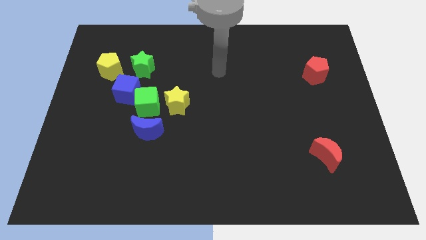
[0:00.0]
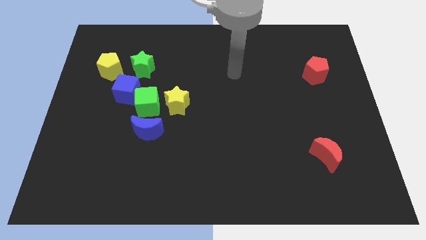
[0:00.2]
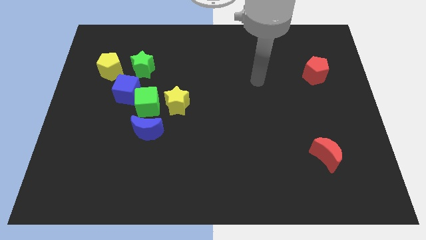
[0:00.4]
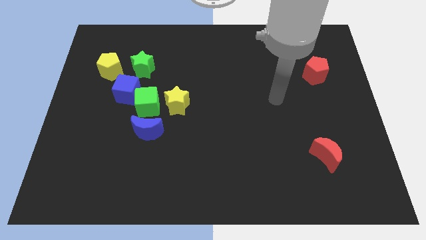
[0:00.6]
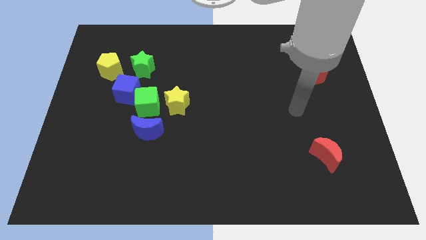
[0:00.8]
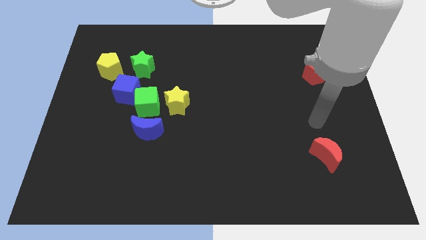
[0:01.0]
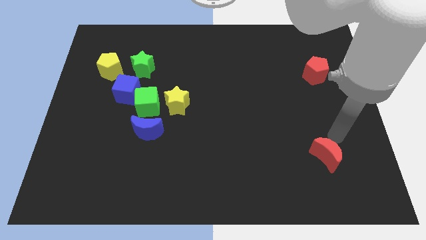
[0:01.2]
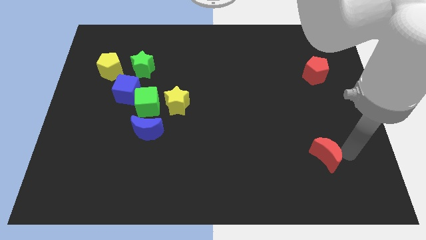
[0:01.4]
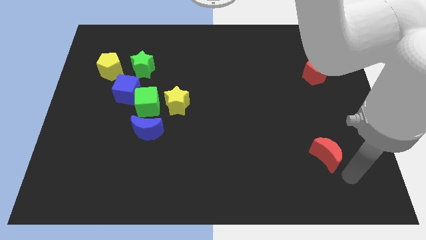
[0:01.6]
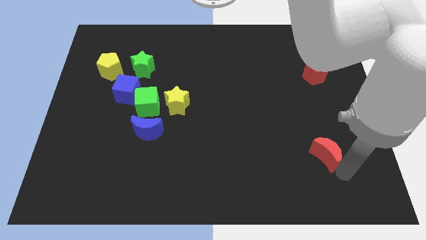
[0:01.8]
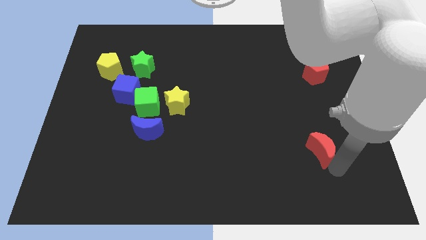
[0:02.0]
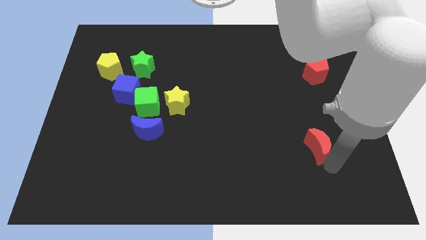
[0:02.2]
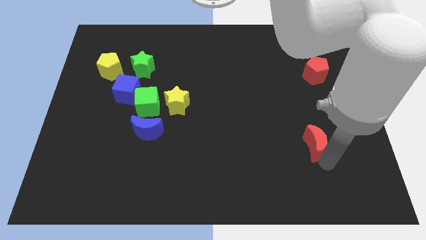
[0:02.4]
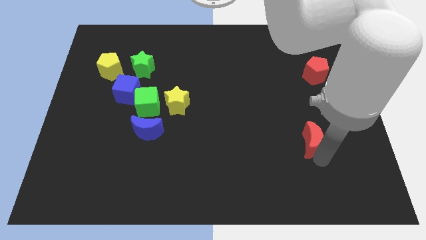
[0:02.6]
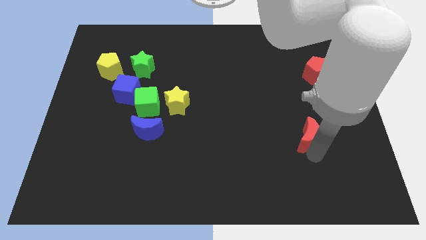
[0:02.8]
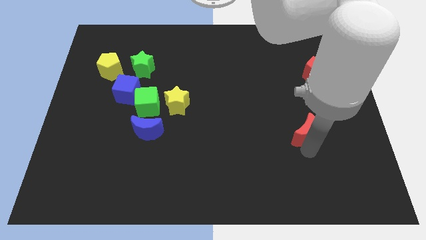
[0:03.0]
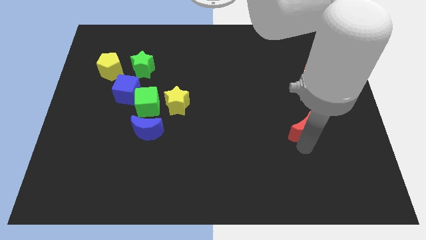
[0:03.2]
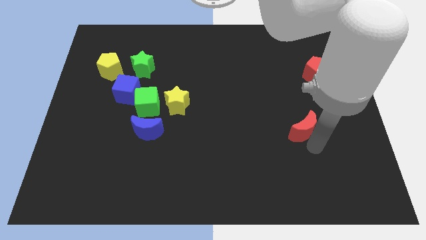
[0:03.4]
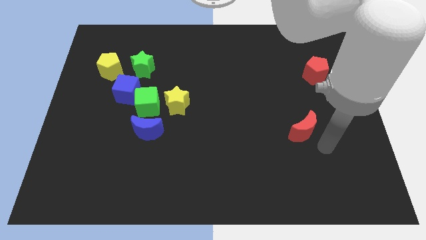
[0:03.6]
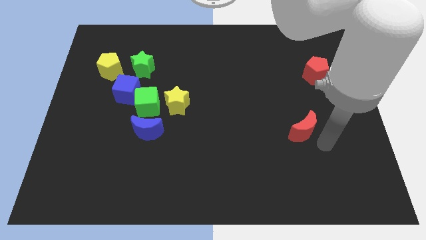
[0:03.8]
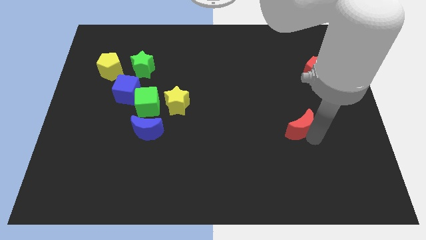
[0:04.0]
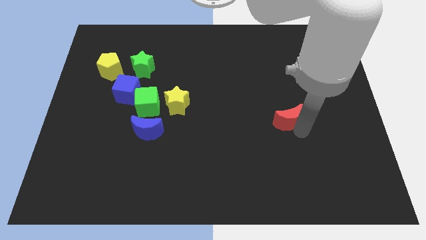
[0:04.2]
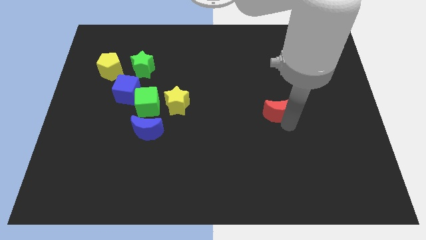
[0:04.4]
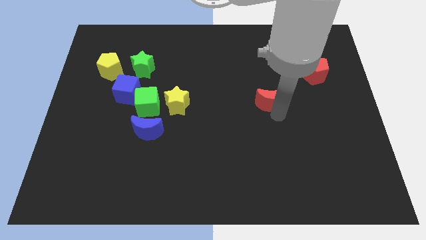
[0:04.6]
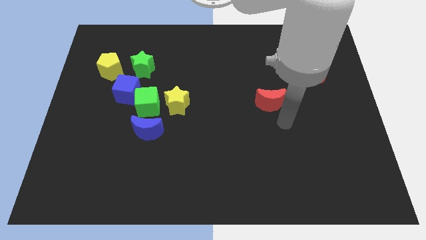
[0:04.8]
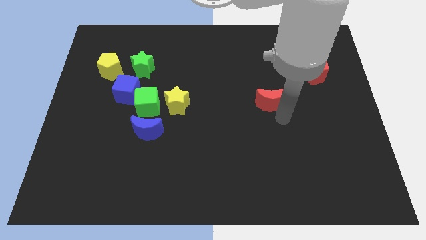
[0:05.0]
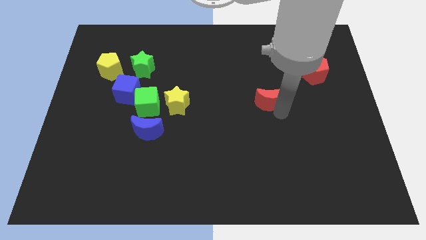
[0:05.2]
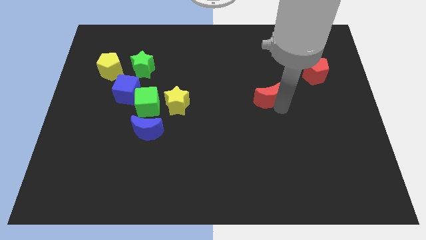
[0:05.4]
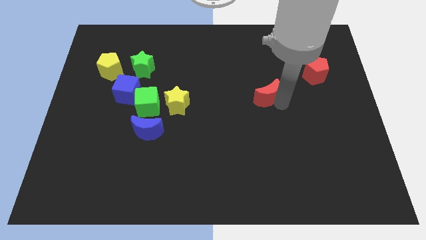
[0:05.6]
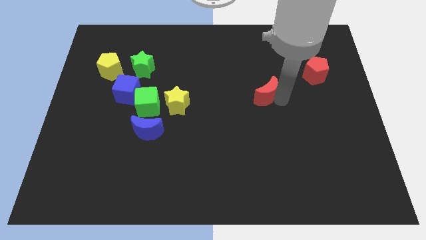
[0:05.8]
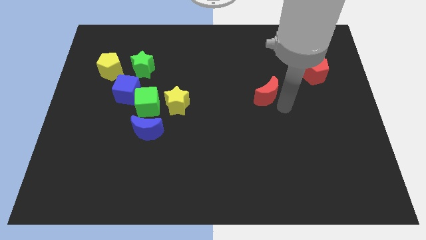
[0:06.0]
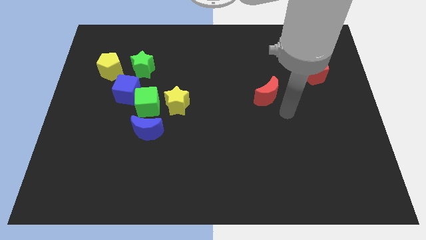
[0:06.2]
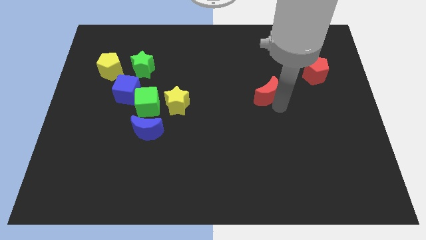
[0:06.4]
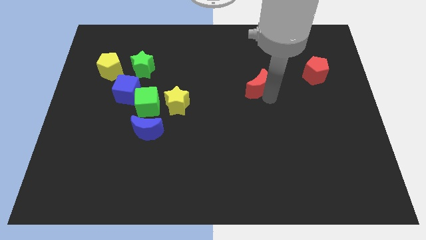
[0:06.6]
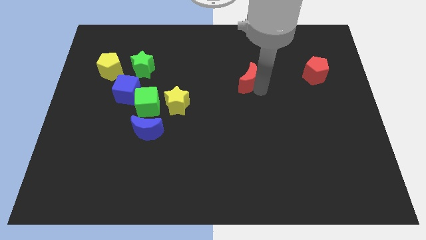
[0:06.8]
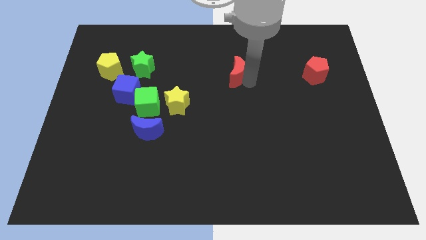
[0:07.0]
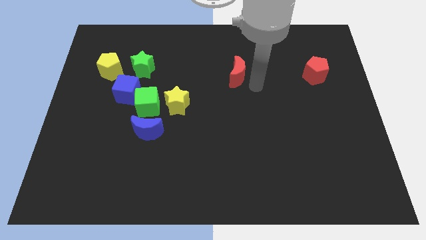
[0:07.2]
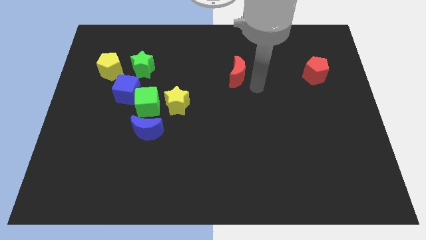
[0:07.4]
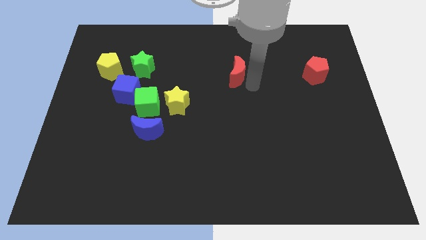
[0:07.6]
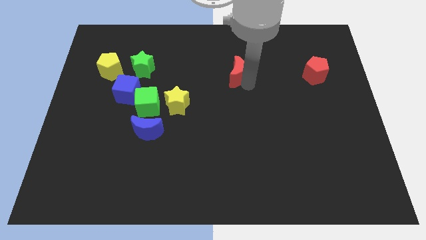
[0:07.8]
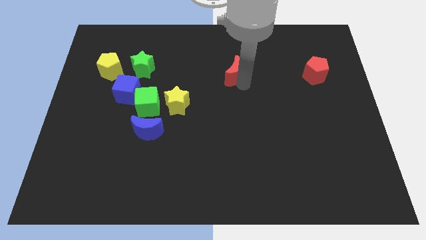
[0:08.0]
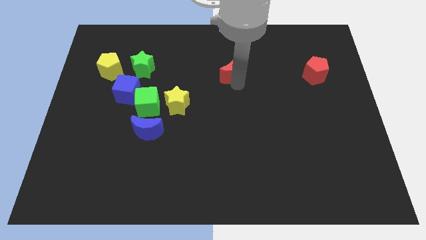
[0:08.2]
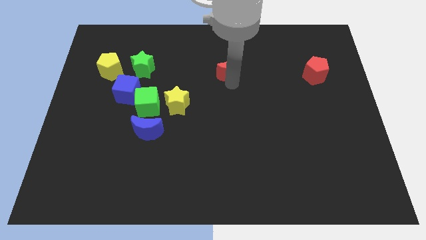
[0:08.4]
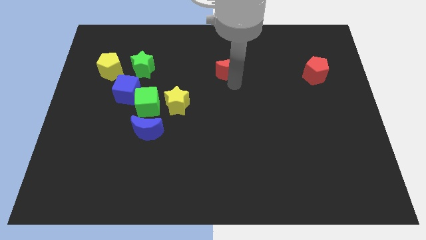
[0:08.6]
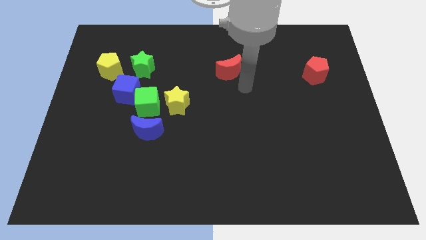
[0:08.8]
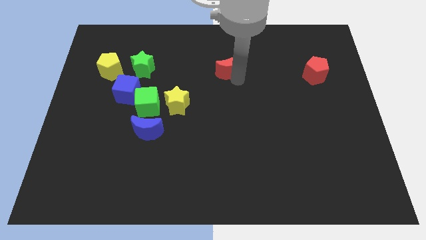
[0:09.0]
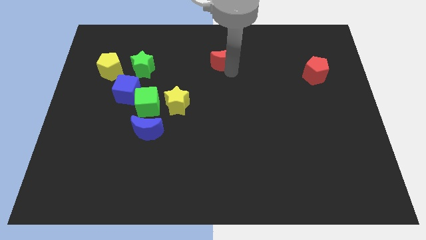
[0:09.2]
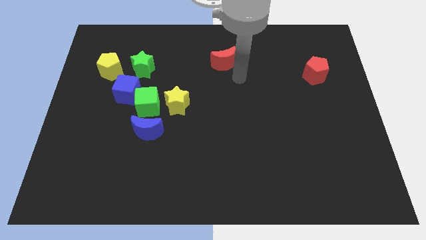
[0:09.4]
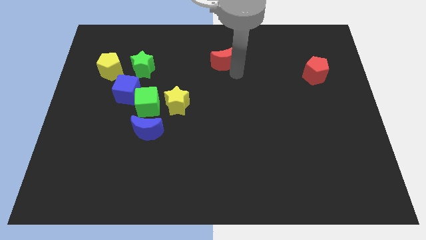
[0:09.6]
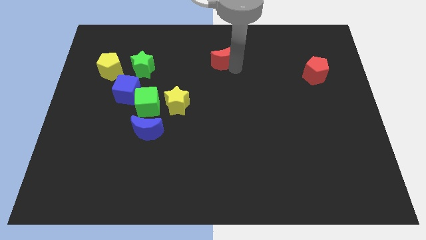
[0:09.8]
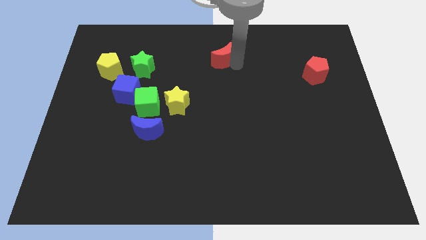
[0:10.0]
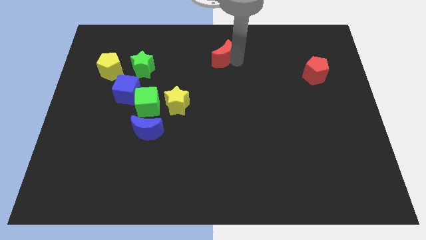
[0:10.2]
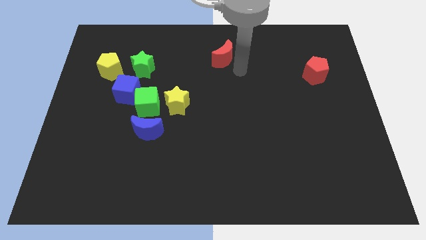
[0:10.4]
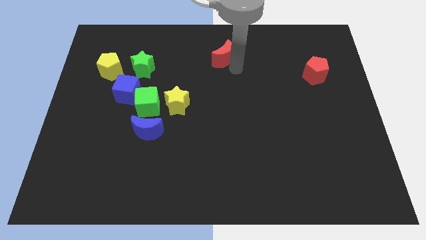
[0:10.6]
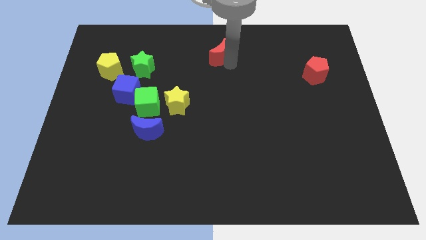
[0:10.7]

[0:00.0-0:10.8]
move the red moon to the top

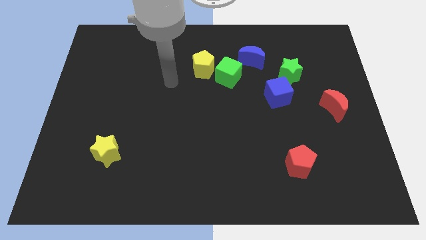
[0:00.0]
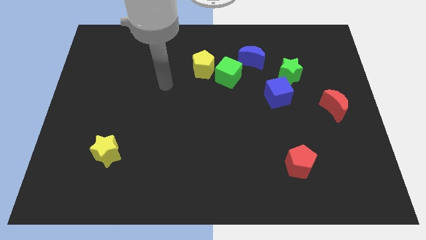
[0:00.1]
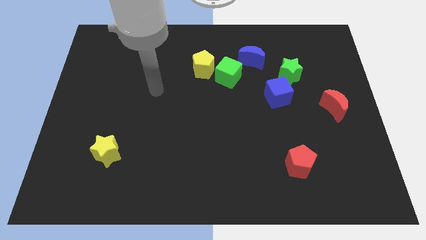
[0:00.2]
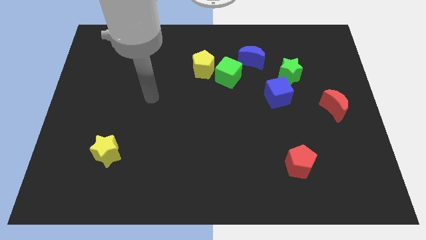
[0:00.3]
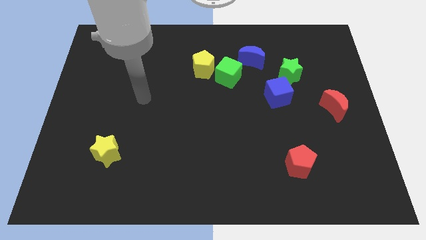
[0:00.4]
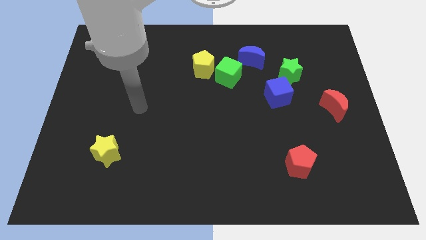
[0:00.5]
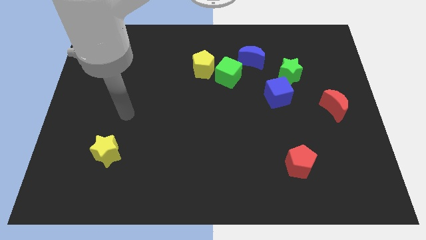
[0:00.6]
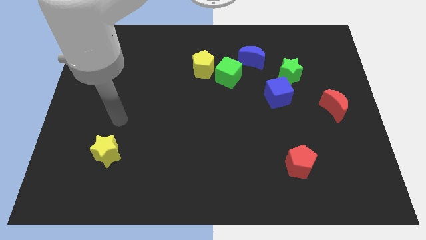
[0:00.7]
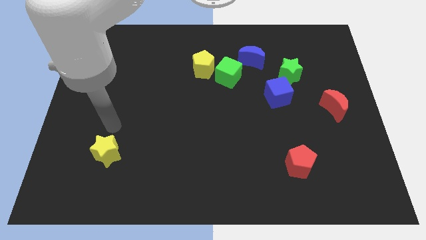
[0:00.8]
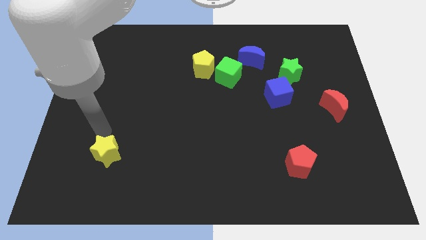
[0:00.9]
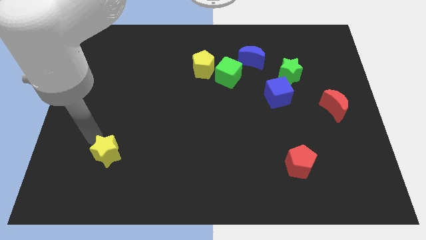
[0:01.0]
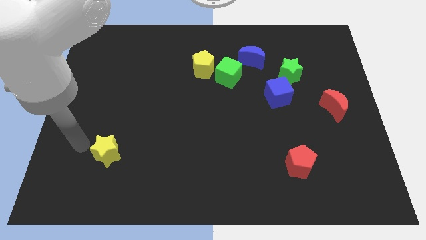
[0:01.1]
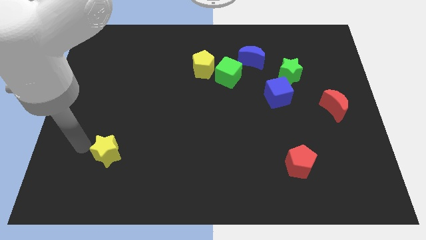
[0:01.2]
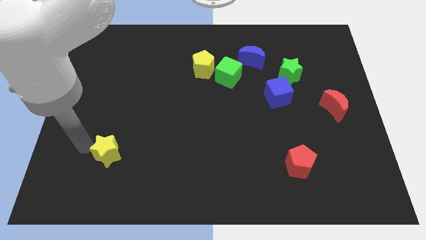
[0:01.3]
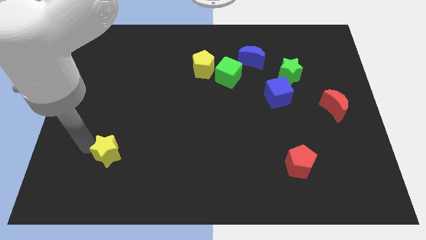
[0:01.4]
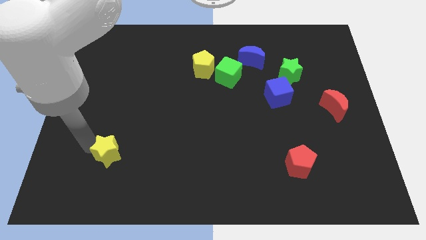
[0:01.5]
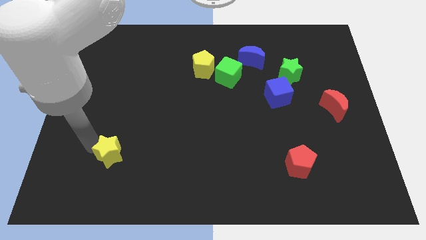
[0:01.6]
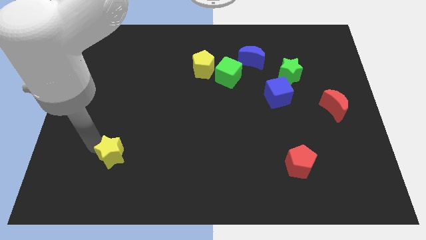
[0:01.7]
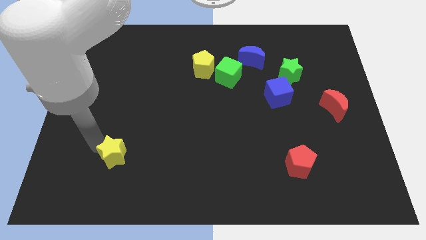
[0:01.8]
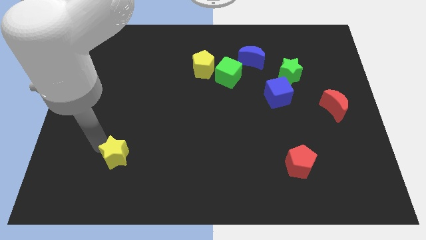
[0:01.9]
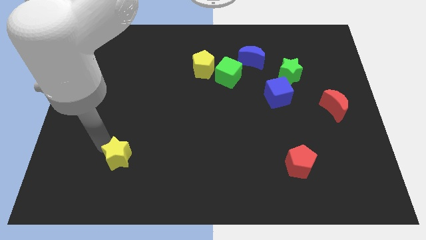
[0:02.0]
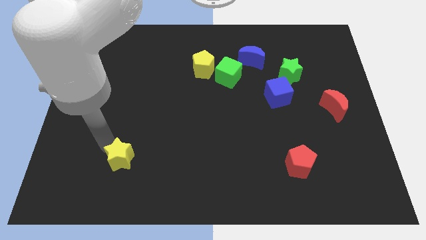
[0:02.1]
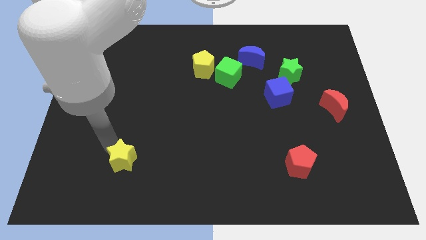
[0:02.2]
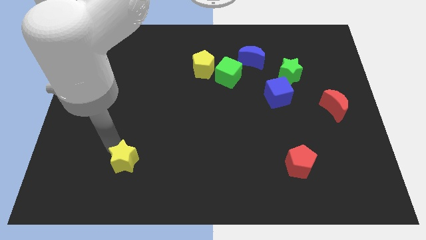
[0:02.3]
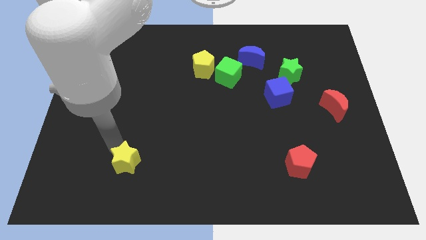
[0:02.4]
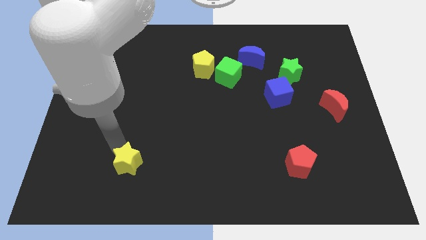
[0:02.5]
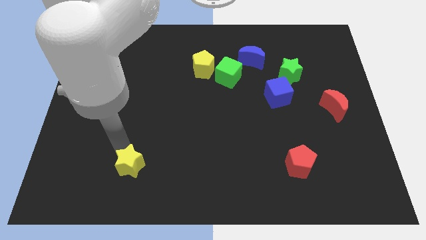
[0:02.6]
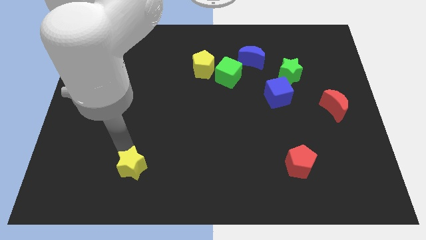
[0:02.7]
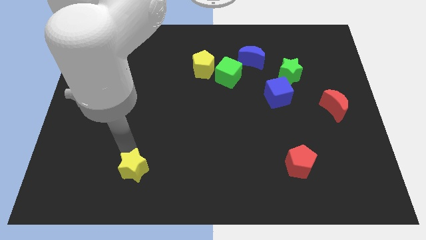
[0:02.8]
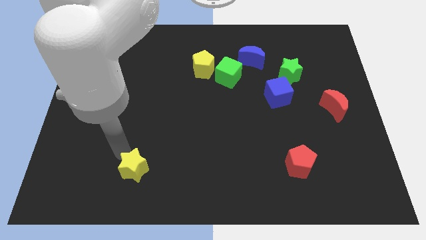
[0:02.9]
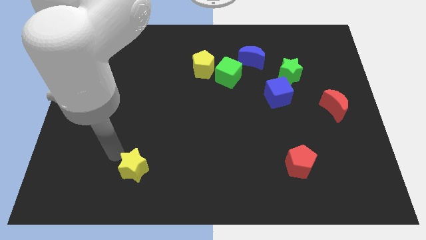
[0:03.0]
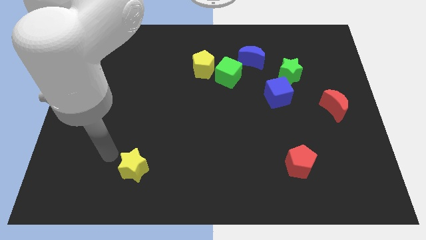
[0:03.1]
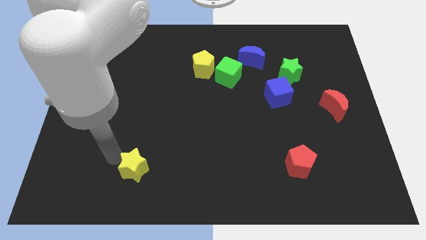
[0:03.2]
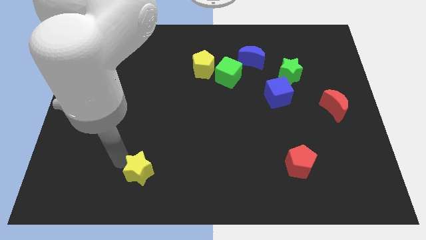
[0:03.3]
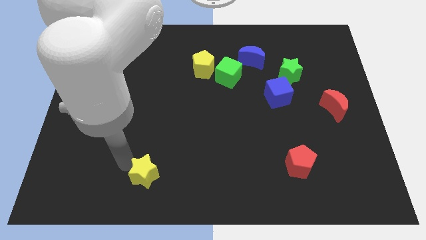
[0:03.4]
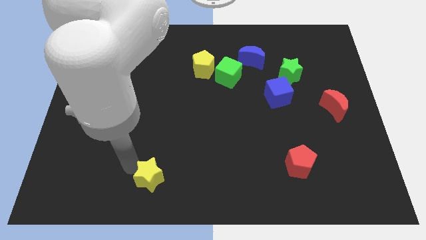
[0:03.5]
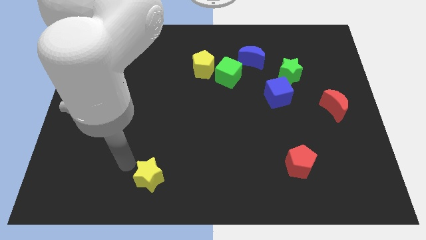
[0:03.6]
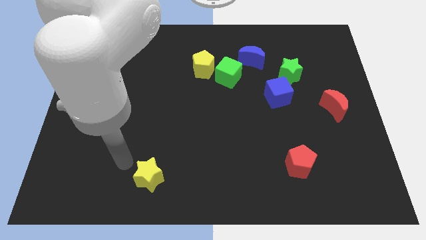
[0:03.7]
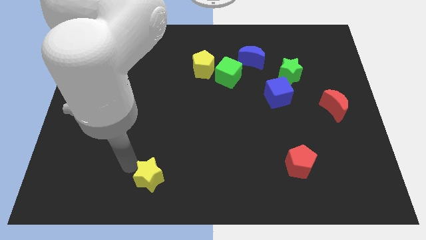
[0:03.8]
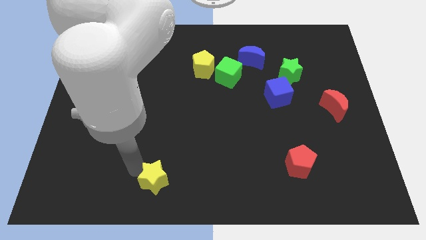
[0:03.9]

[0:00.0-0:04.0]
push the yellow star to the bottom
